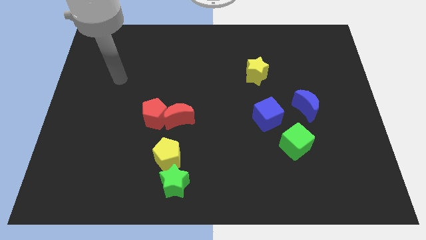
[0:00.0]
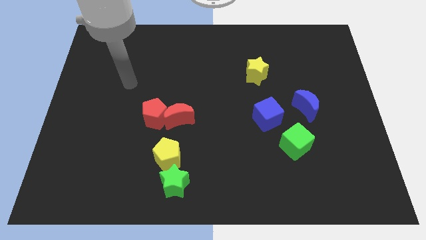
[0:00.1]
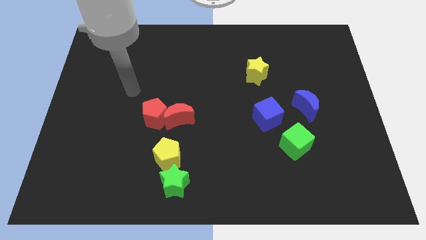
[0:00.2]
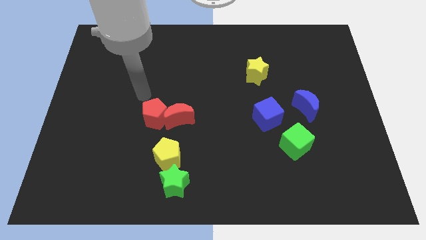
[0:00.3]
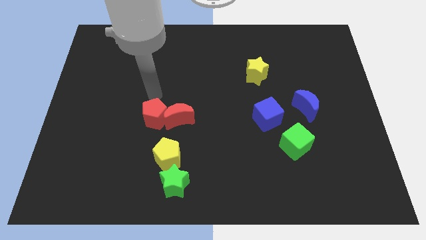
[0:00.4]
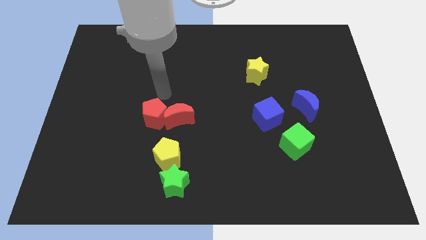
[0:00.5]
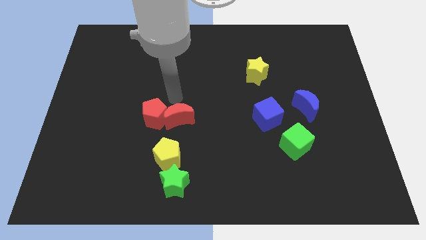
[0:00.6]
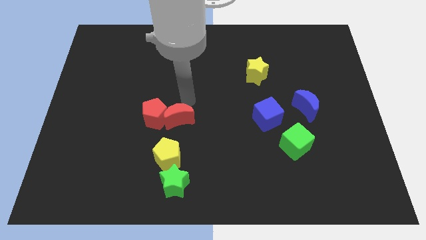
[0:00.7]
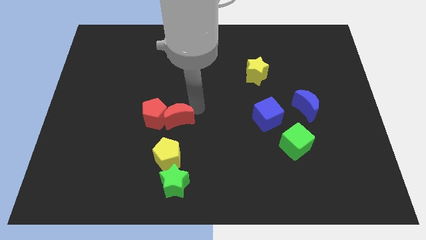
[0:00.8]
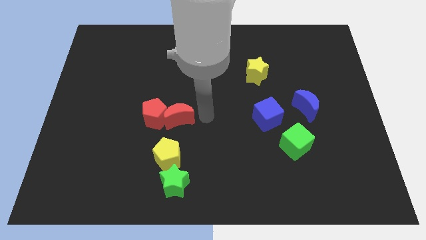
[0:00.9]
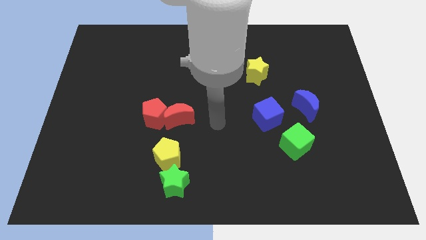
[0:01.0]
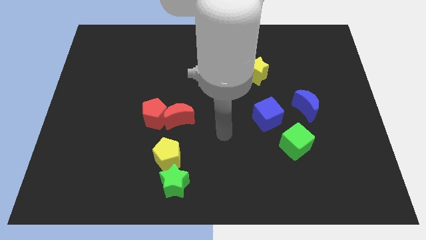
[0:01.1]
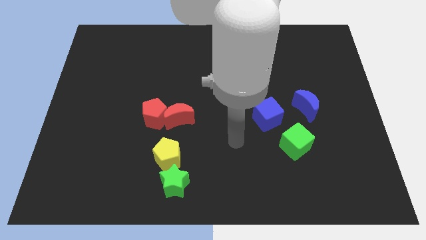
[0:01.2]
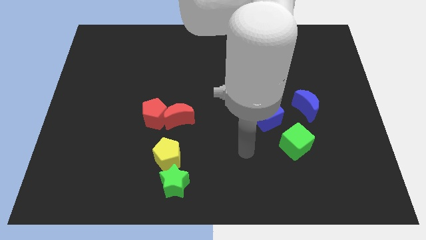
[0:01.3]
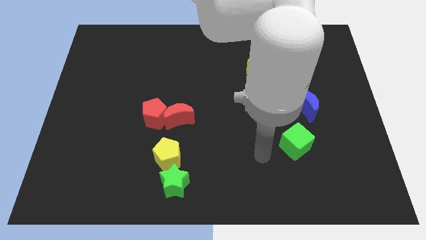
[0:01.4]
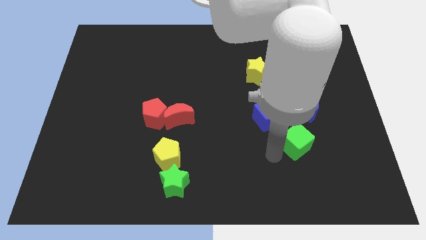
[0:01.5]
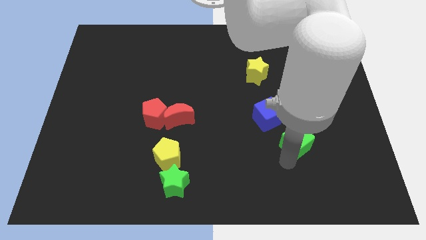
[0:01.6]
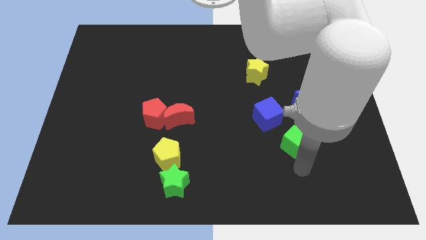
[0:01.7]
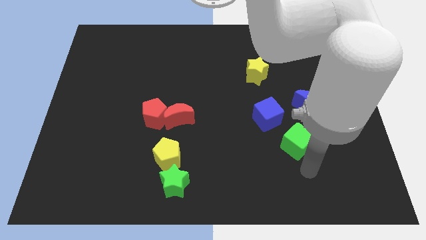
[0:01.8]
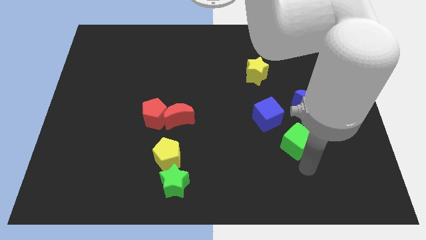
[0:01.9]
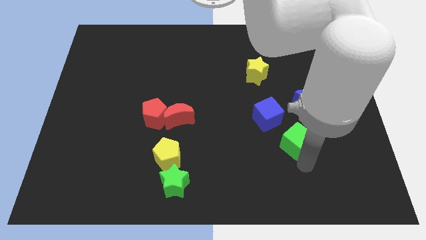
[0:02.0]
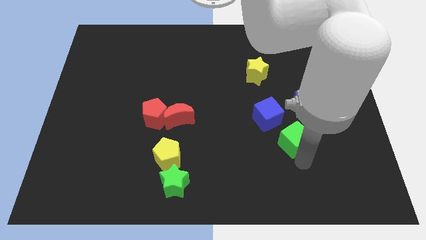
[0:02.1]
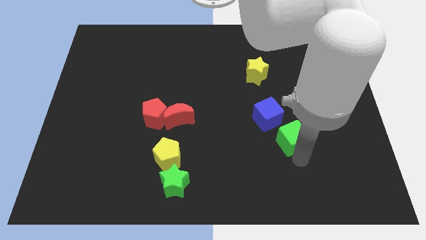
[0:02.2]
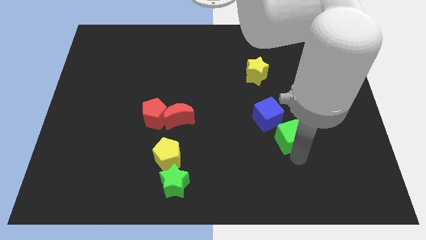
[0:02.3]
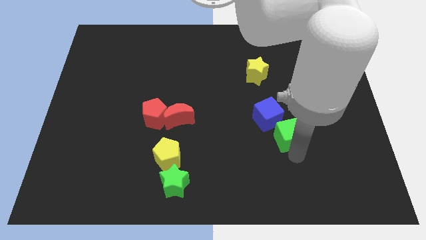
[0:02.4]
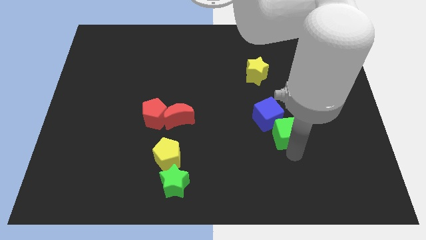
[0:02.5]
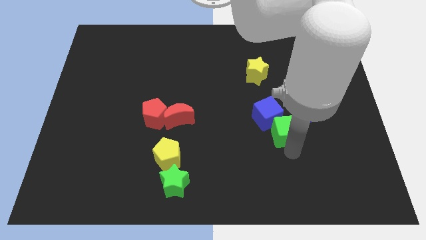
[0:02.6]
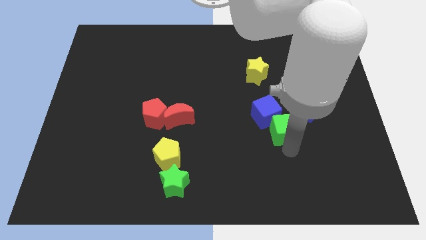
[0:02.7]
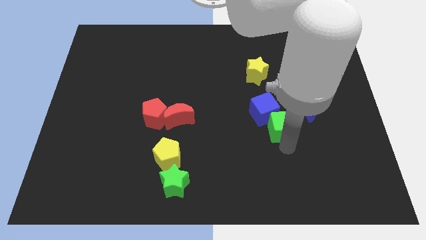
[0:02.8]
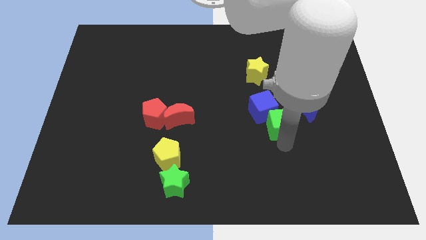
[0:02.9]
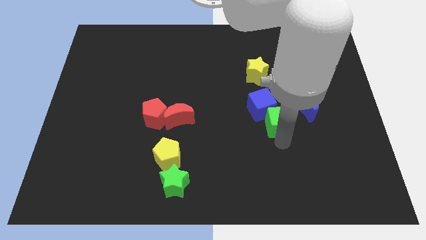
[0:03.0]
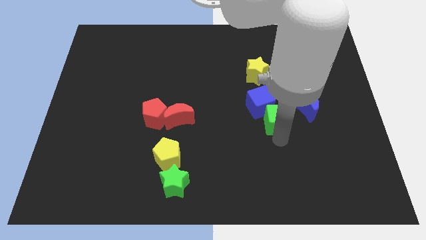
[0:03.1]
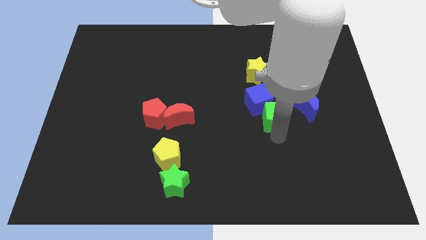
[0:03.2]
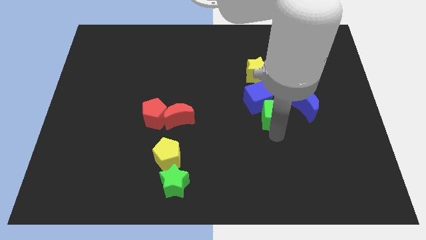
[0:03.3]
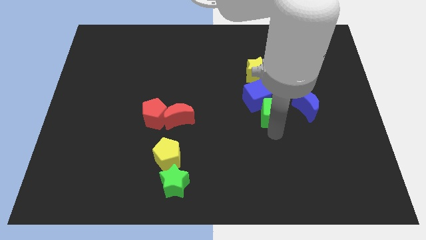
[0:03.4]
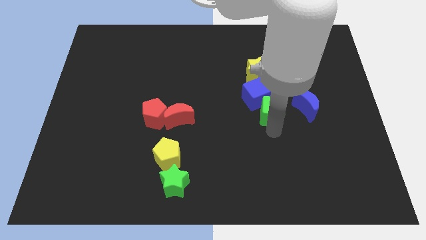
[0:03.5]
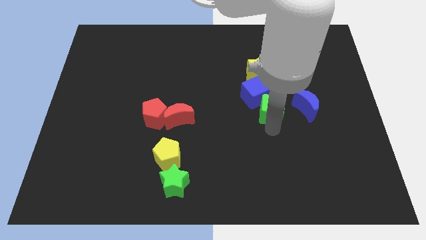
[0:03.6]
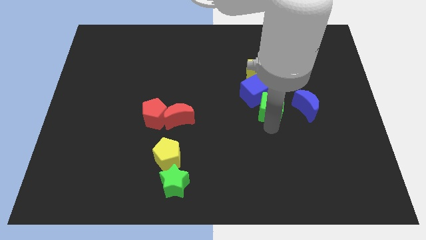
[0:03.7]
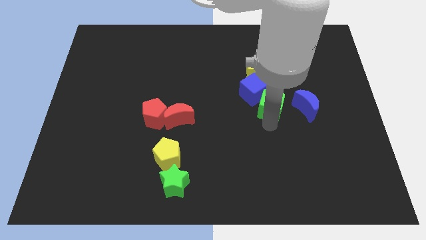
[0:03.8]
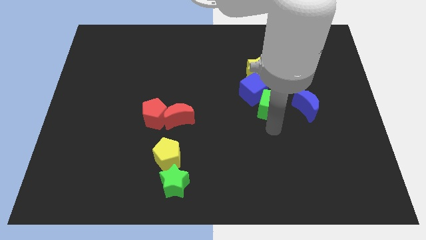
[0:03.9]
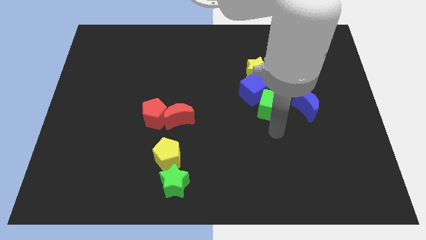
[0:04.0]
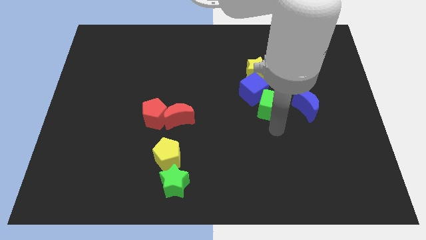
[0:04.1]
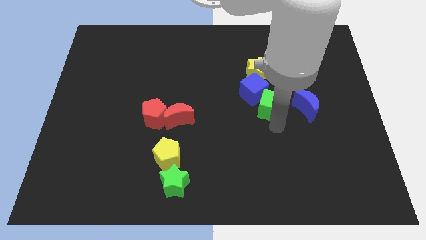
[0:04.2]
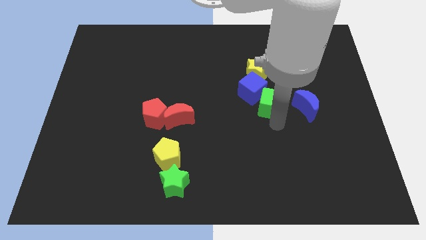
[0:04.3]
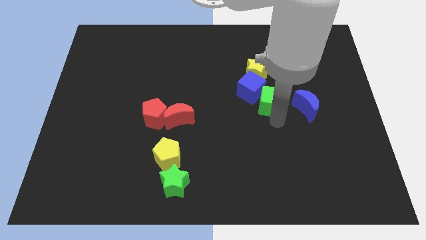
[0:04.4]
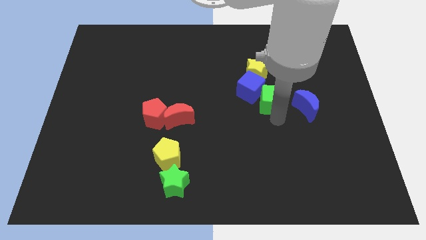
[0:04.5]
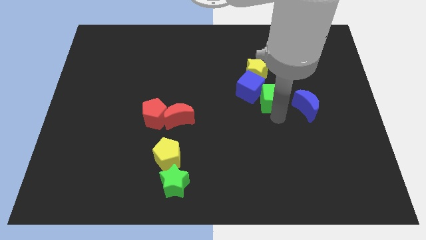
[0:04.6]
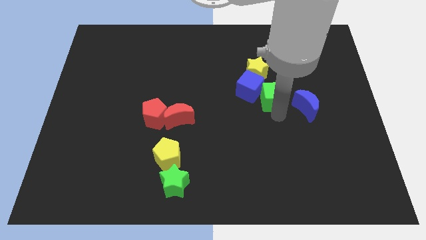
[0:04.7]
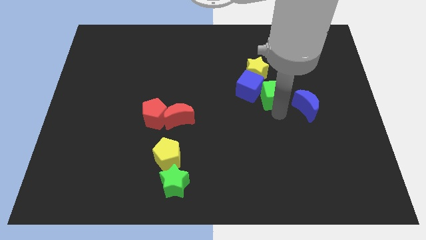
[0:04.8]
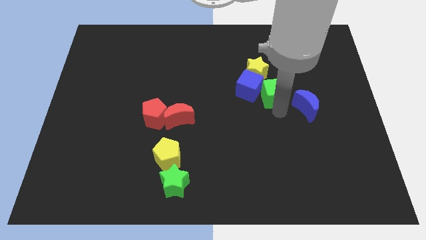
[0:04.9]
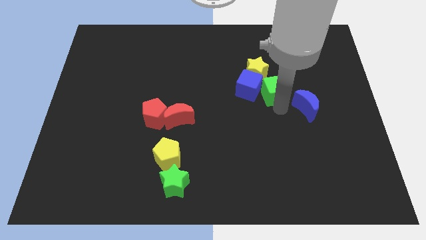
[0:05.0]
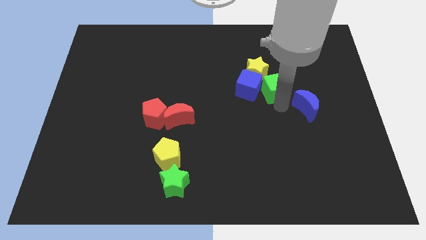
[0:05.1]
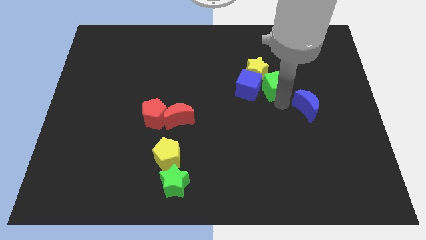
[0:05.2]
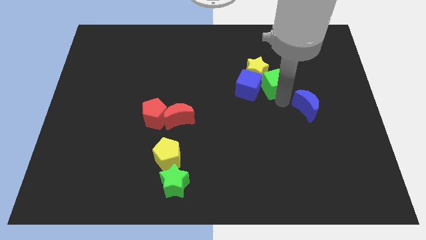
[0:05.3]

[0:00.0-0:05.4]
push the green cube towards the yellow star

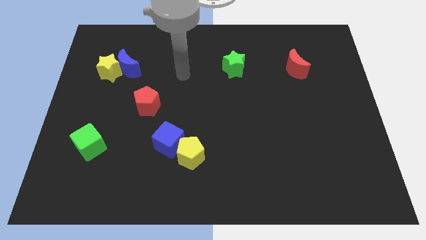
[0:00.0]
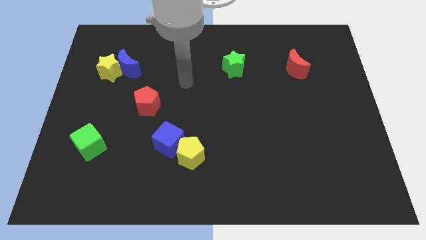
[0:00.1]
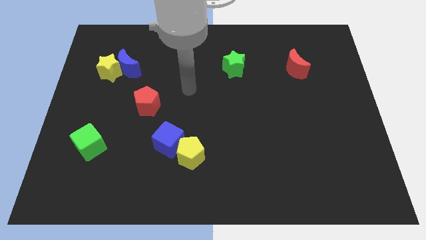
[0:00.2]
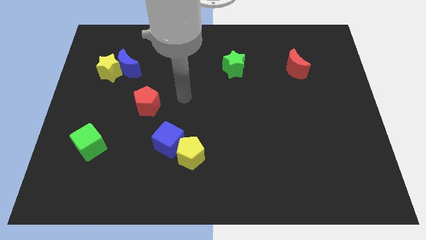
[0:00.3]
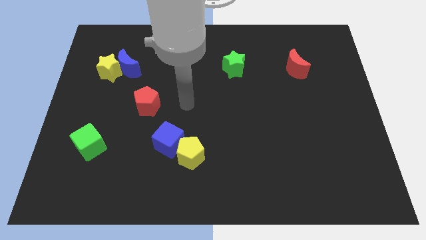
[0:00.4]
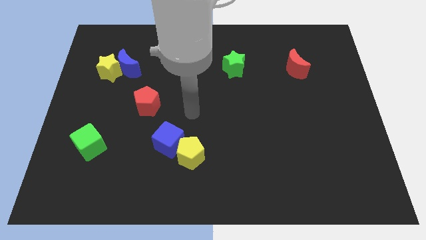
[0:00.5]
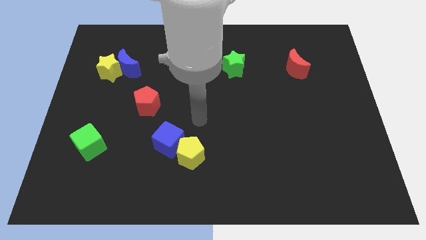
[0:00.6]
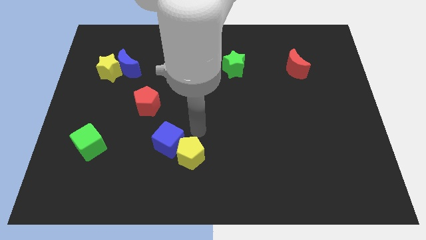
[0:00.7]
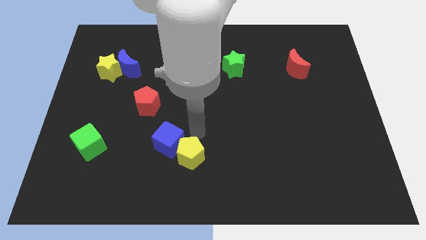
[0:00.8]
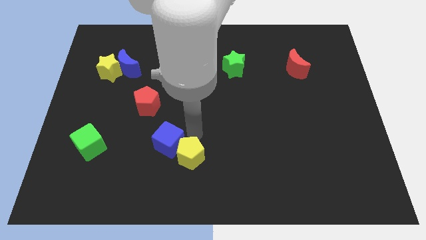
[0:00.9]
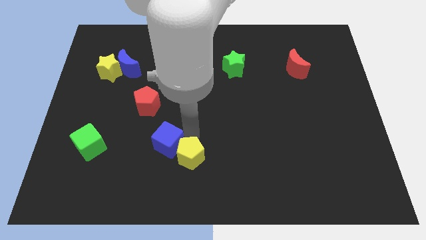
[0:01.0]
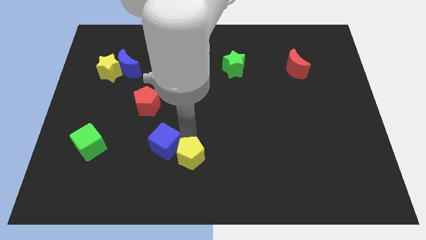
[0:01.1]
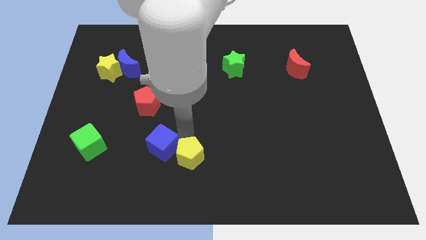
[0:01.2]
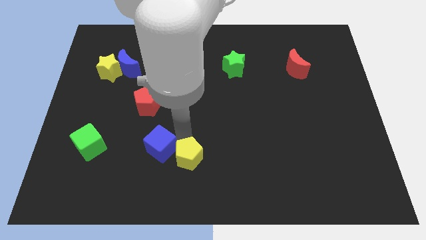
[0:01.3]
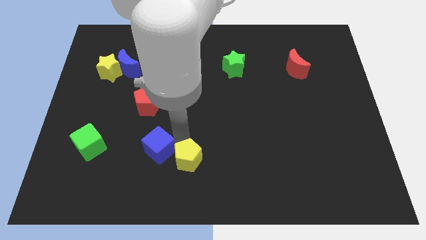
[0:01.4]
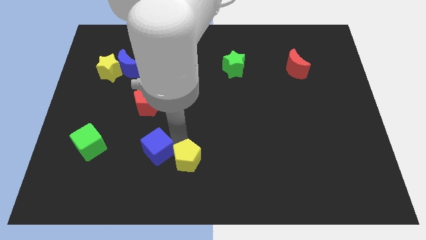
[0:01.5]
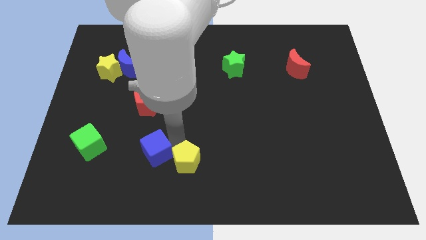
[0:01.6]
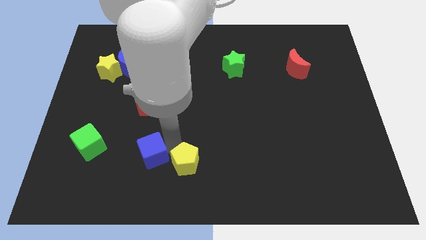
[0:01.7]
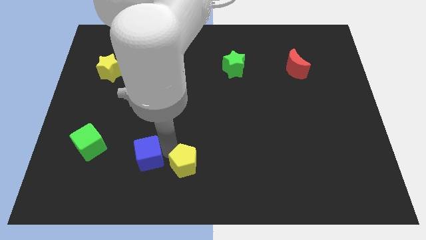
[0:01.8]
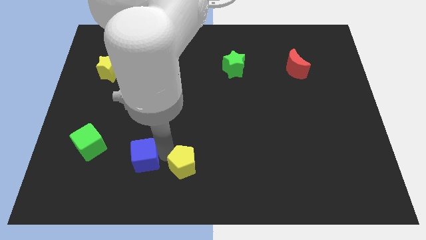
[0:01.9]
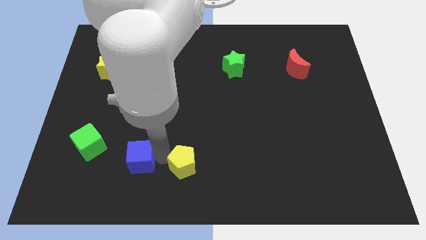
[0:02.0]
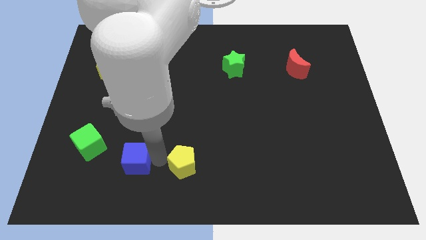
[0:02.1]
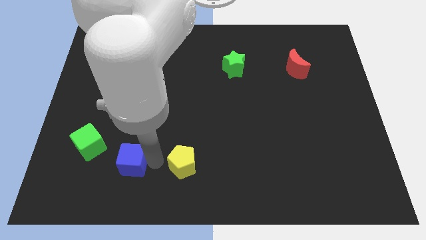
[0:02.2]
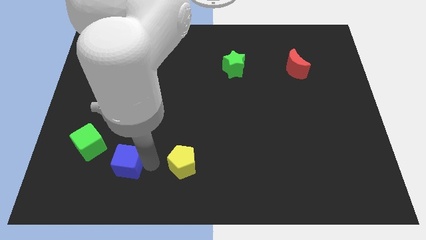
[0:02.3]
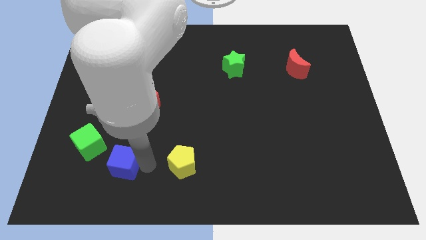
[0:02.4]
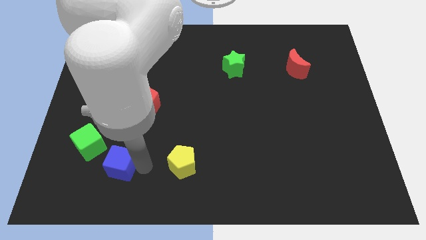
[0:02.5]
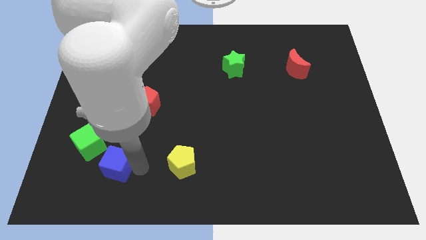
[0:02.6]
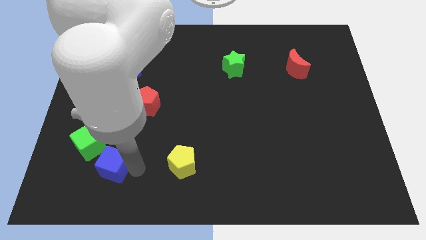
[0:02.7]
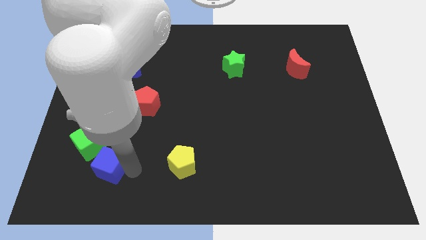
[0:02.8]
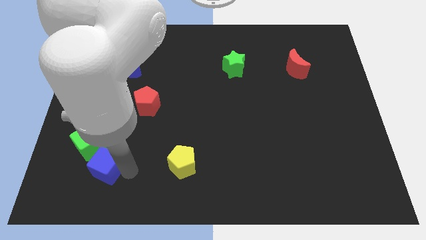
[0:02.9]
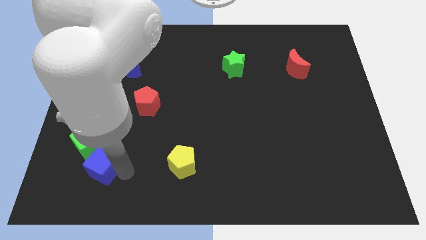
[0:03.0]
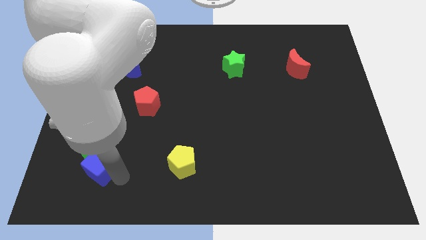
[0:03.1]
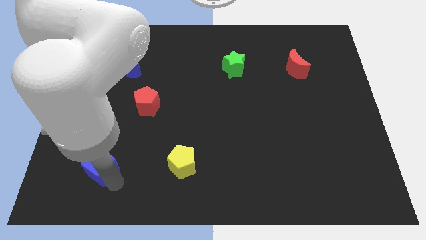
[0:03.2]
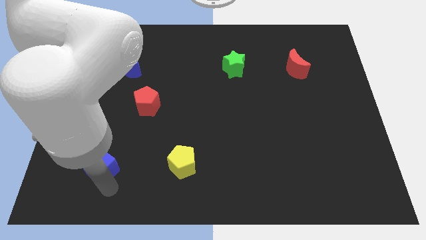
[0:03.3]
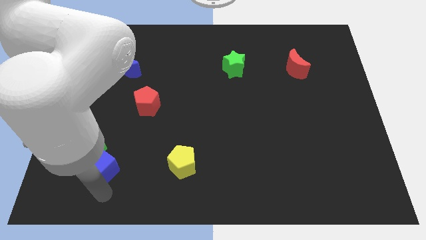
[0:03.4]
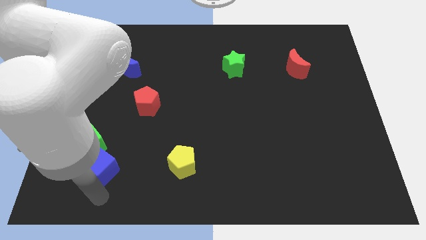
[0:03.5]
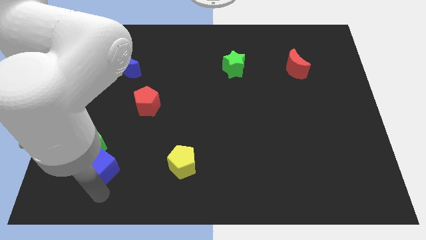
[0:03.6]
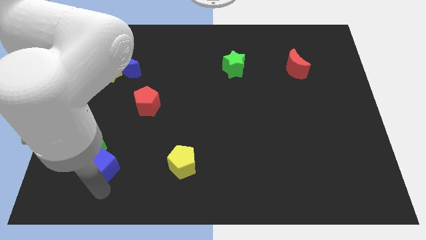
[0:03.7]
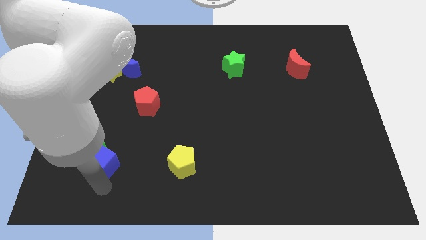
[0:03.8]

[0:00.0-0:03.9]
move the blue cube next to the green cube
